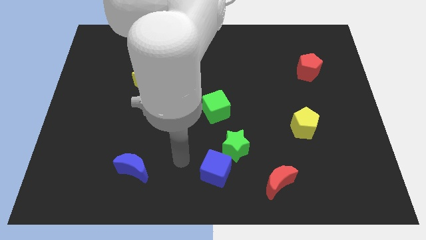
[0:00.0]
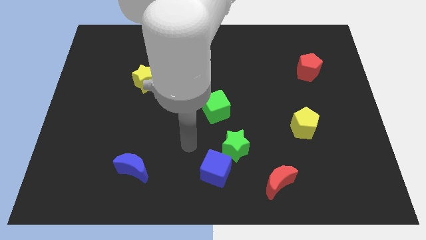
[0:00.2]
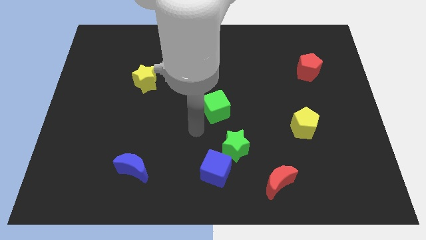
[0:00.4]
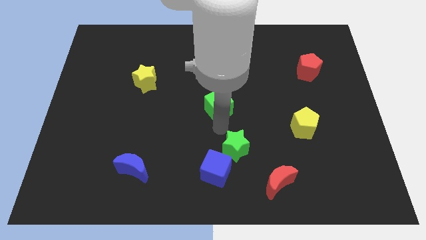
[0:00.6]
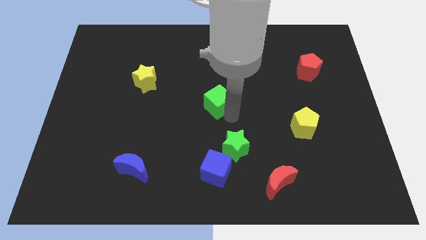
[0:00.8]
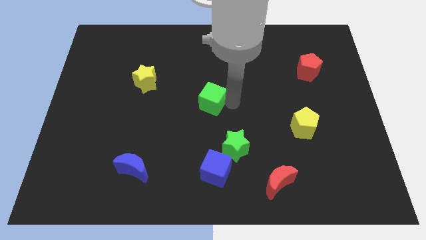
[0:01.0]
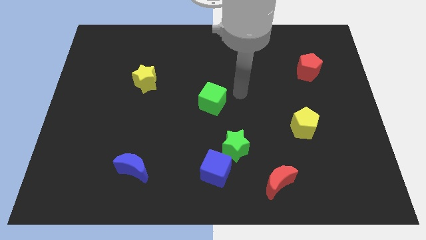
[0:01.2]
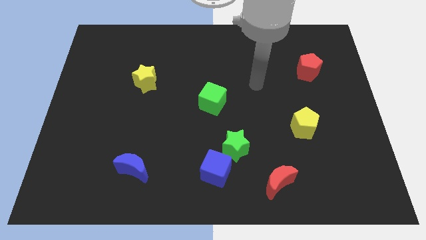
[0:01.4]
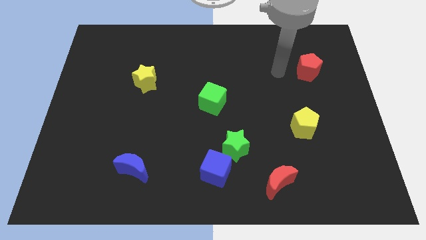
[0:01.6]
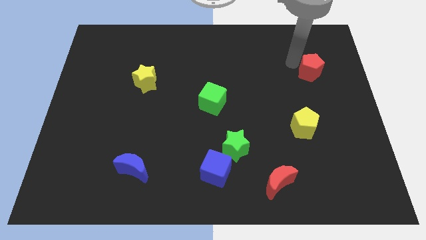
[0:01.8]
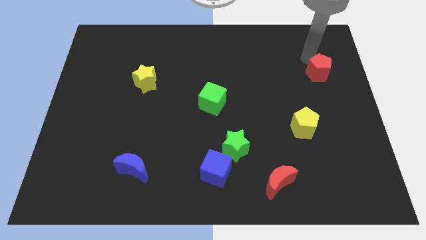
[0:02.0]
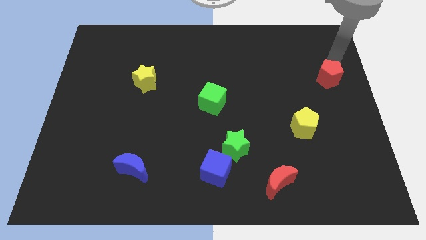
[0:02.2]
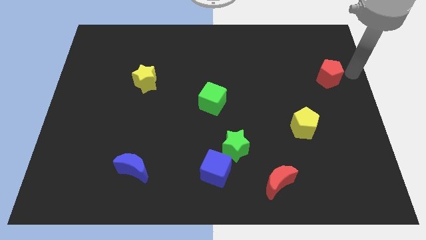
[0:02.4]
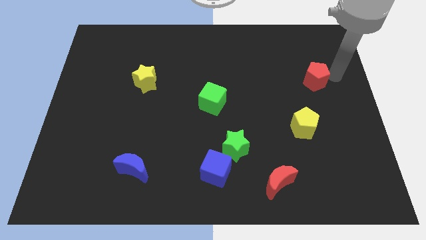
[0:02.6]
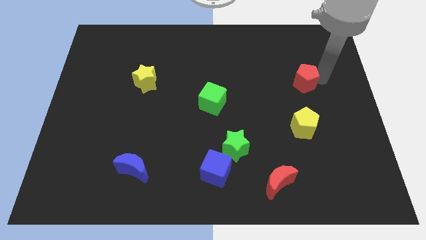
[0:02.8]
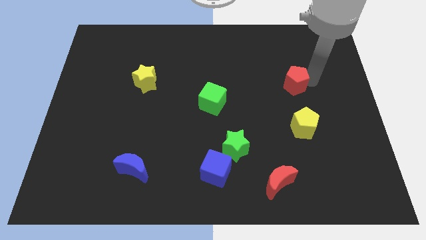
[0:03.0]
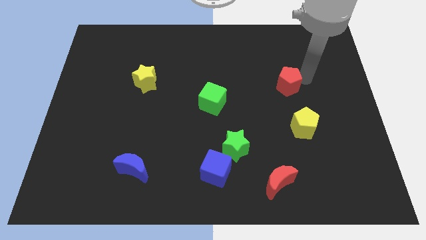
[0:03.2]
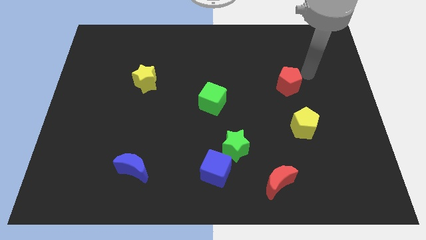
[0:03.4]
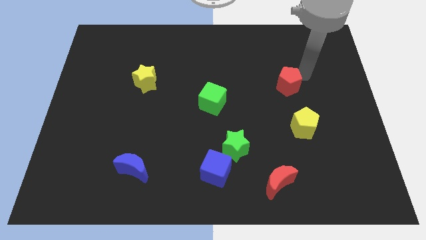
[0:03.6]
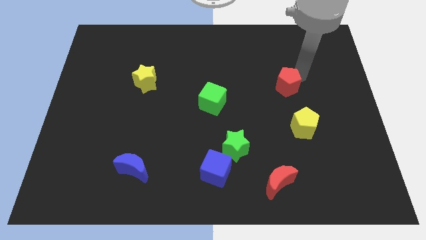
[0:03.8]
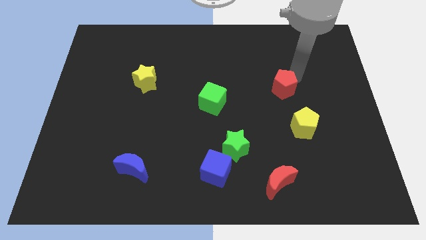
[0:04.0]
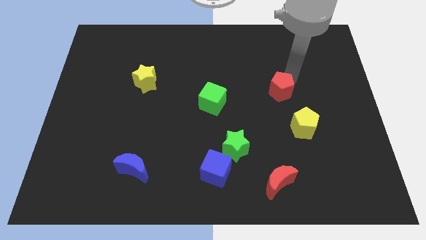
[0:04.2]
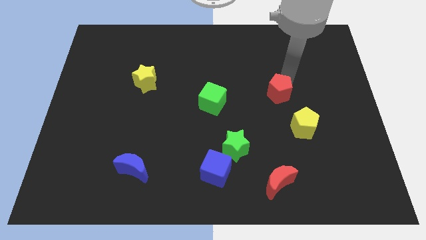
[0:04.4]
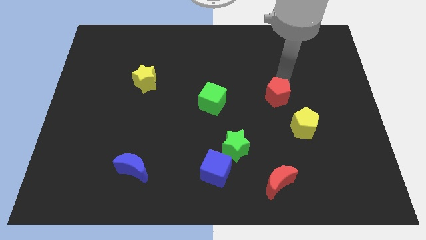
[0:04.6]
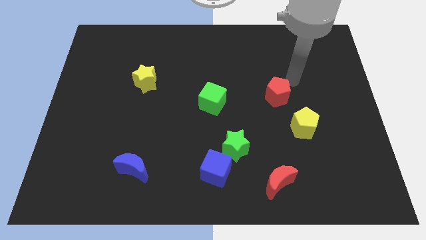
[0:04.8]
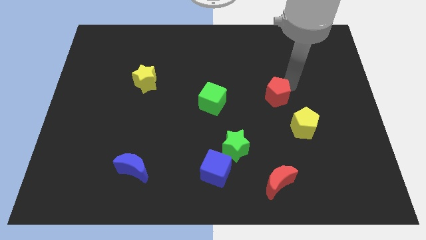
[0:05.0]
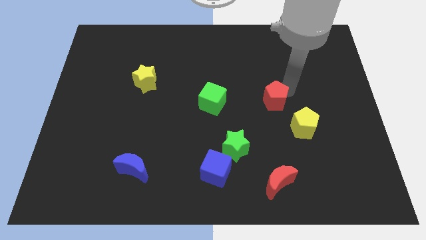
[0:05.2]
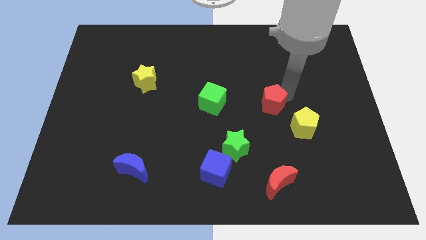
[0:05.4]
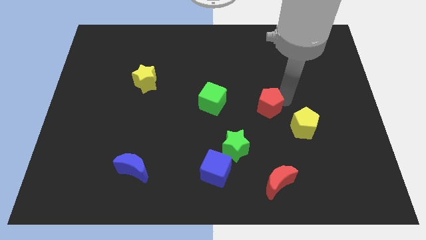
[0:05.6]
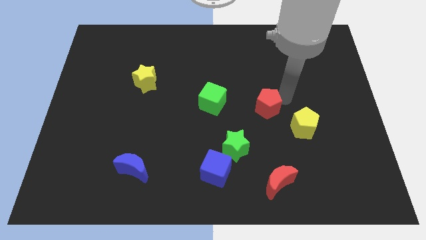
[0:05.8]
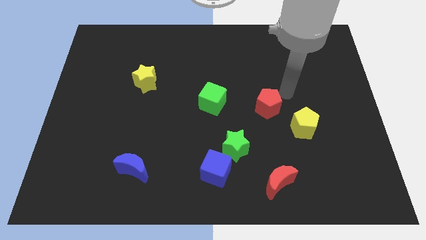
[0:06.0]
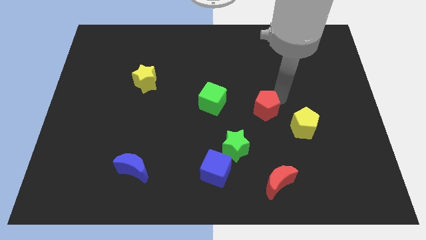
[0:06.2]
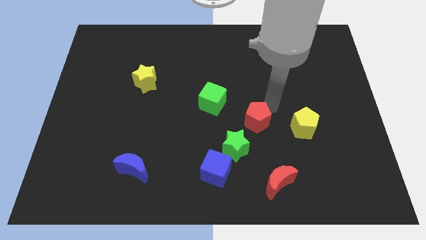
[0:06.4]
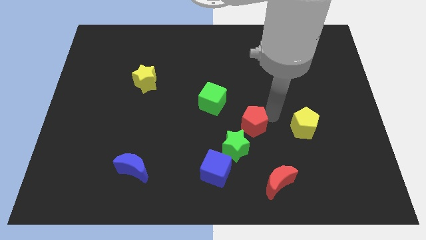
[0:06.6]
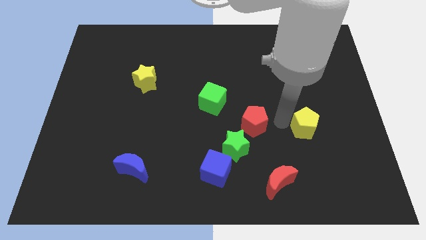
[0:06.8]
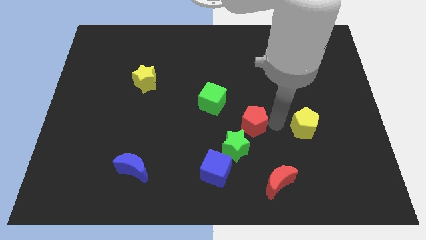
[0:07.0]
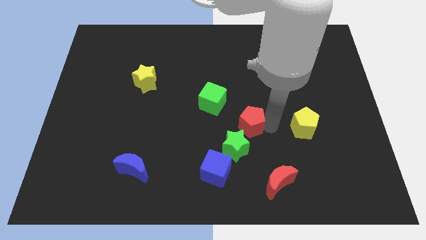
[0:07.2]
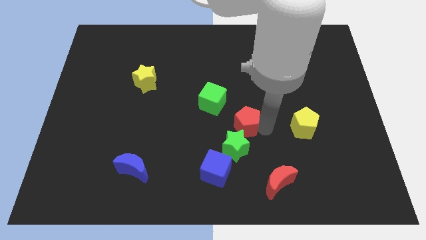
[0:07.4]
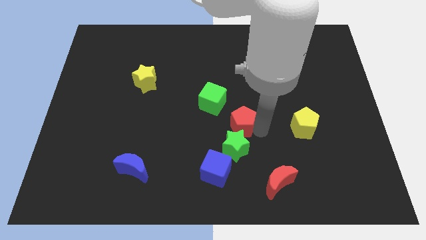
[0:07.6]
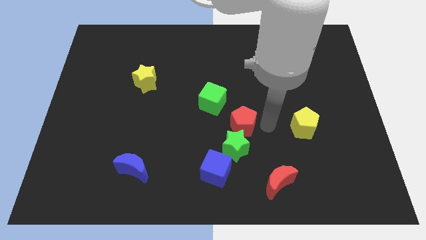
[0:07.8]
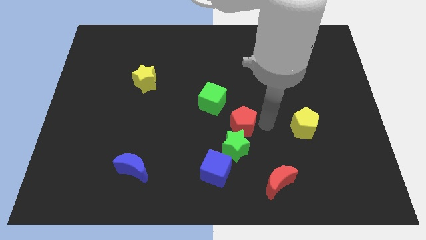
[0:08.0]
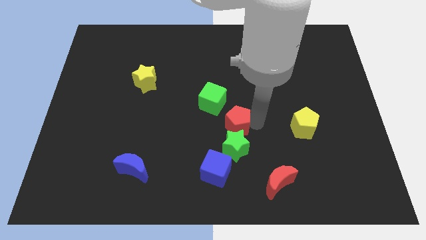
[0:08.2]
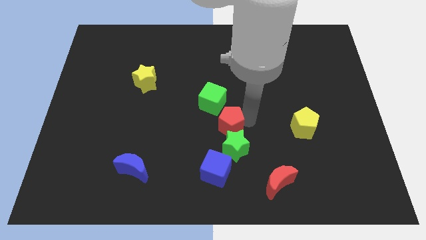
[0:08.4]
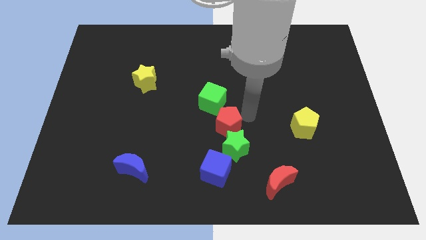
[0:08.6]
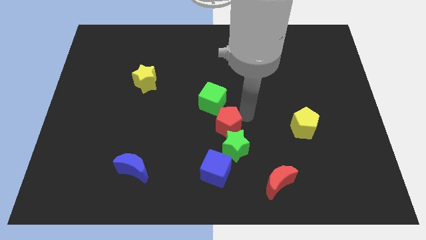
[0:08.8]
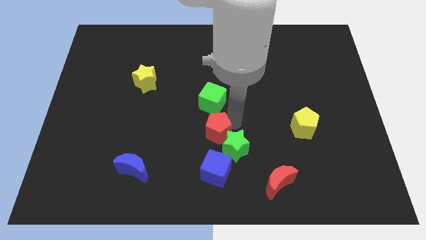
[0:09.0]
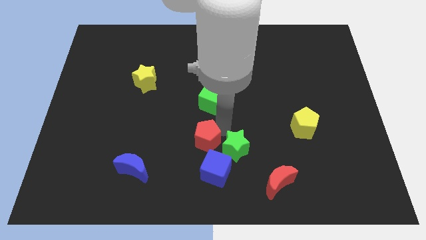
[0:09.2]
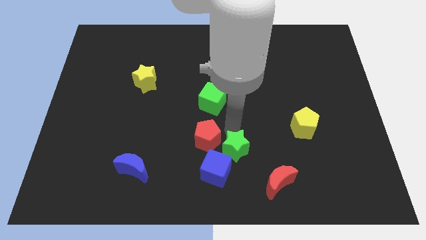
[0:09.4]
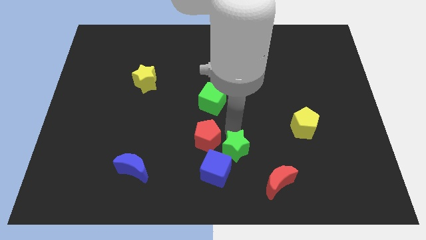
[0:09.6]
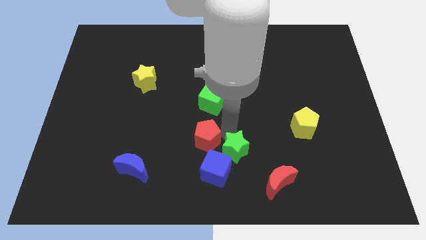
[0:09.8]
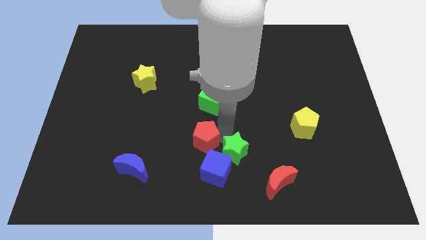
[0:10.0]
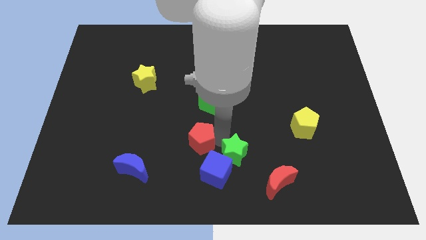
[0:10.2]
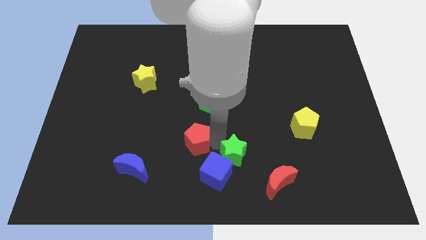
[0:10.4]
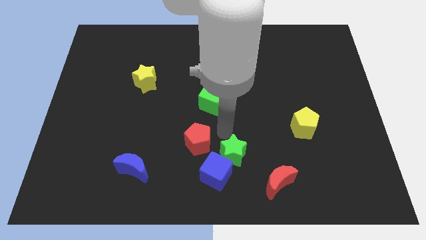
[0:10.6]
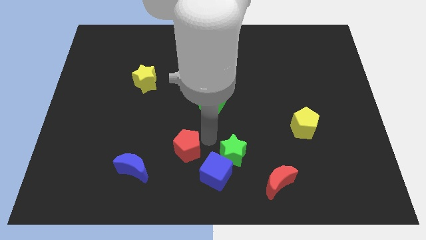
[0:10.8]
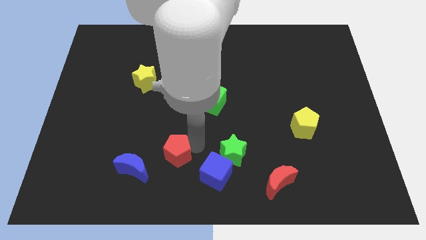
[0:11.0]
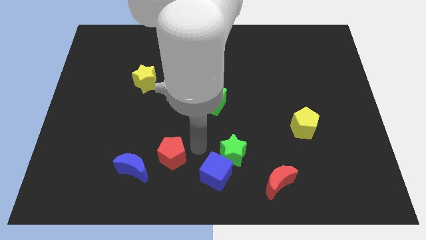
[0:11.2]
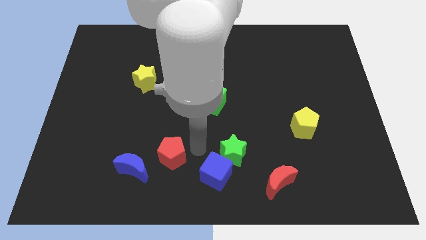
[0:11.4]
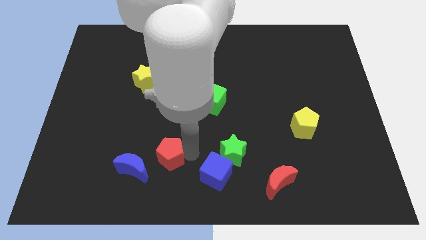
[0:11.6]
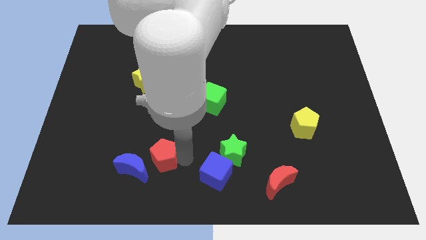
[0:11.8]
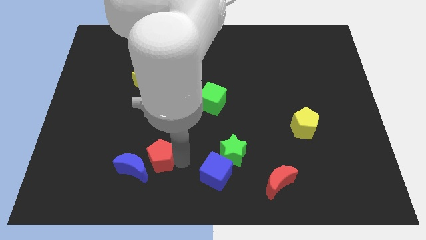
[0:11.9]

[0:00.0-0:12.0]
slide the red pentagon to the blue moon

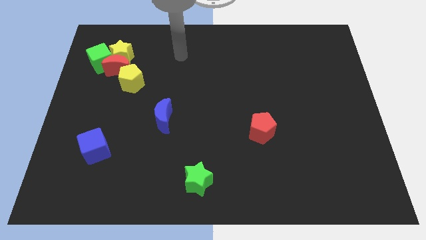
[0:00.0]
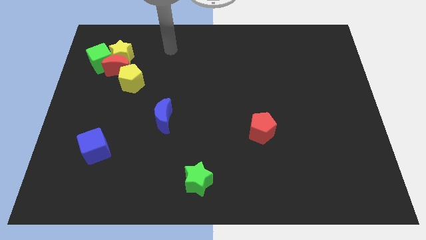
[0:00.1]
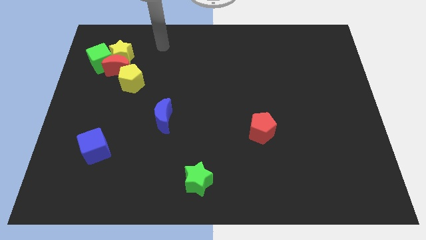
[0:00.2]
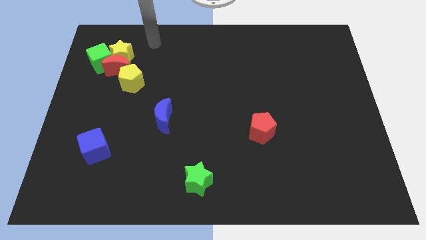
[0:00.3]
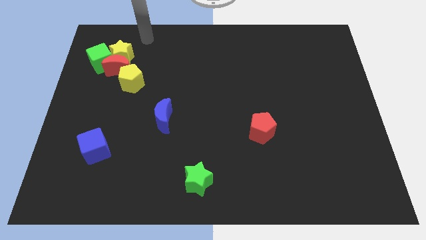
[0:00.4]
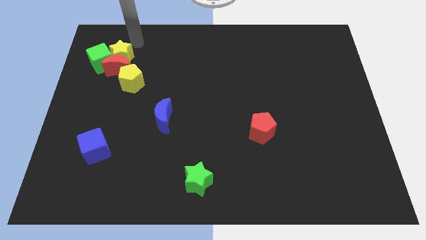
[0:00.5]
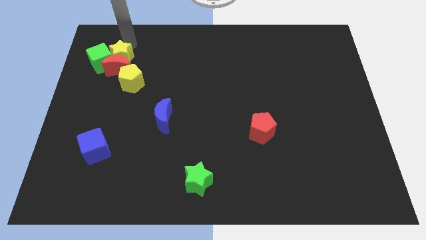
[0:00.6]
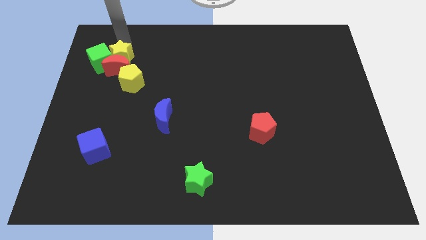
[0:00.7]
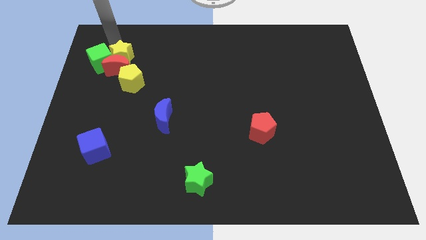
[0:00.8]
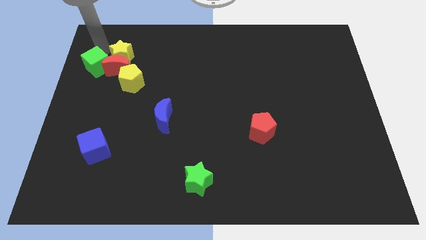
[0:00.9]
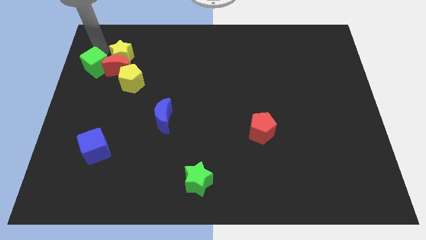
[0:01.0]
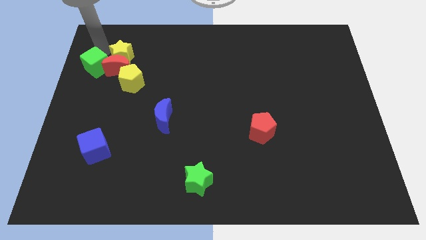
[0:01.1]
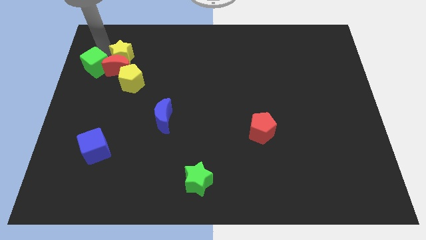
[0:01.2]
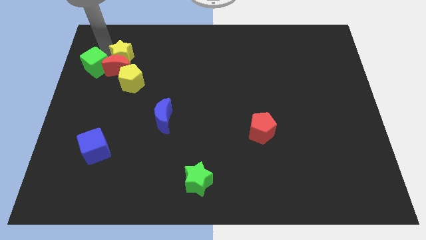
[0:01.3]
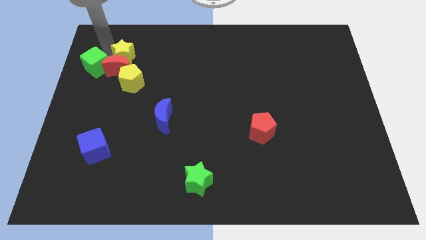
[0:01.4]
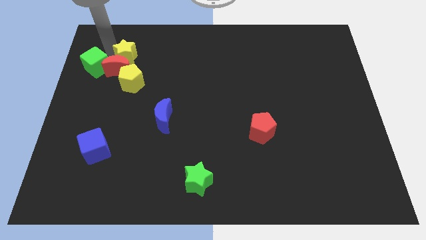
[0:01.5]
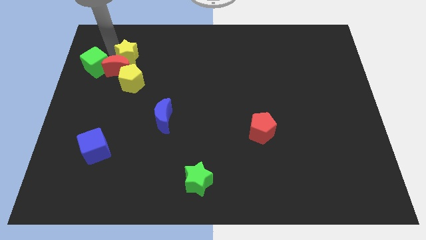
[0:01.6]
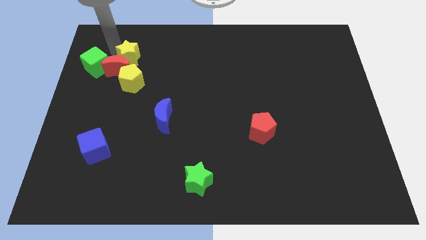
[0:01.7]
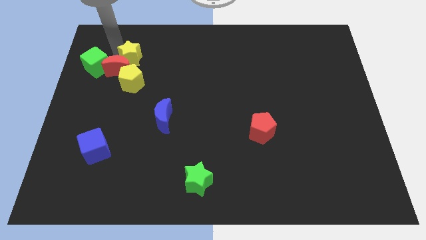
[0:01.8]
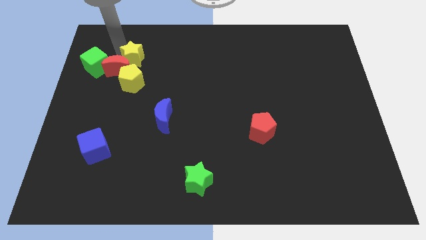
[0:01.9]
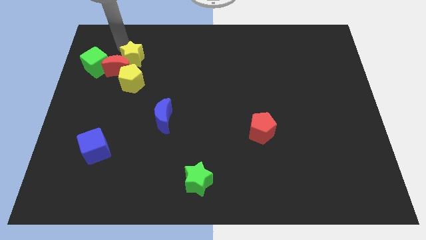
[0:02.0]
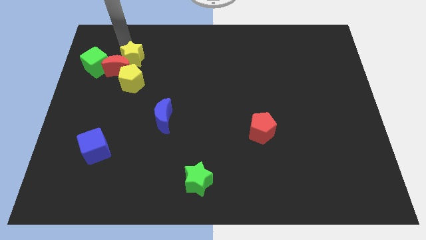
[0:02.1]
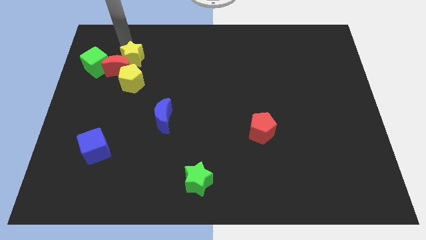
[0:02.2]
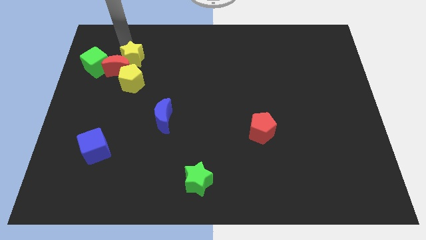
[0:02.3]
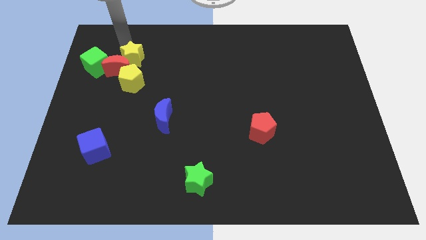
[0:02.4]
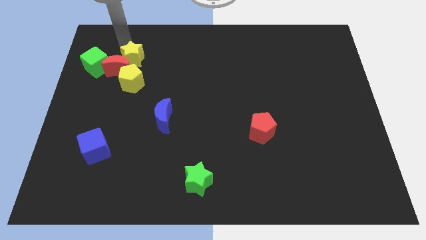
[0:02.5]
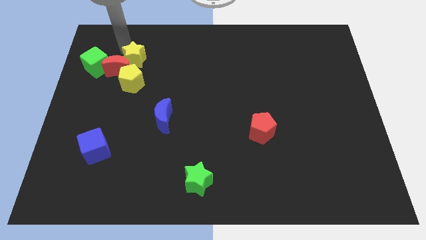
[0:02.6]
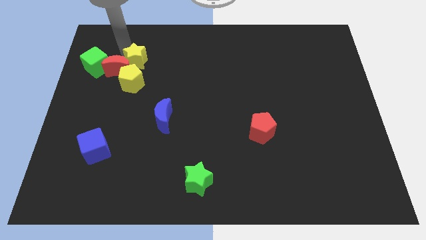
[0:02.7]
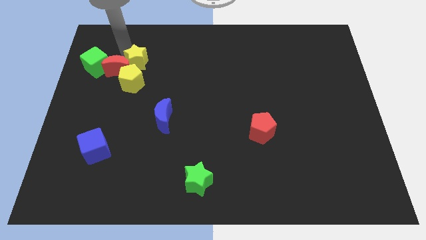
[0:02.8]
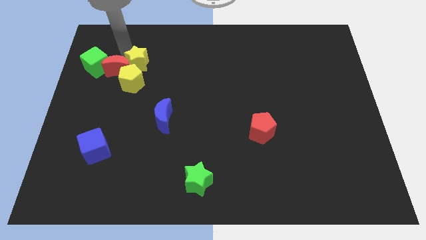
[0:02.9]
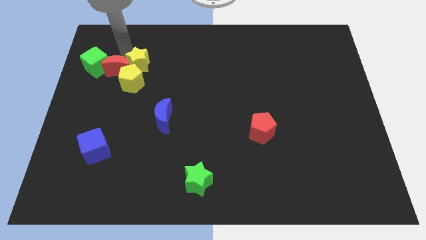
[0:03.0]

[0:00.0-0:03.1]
put the yellow star next to the yellow pentagon
